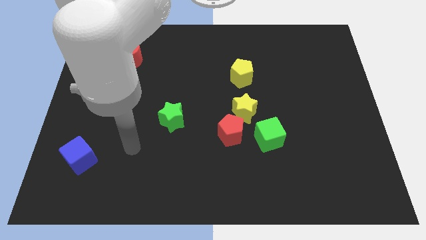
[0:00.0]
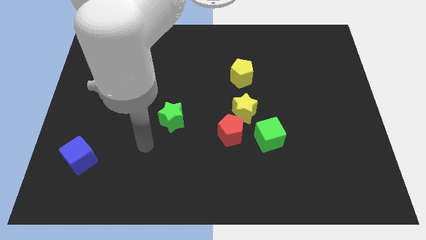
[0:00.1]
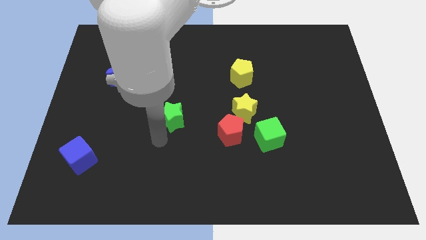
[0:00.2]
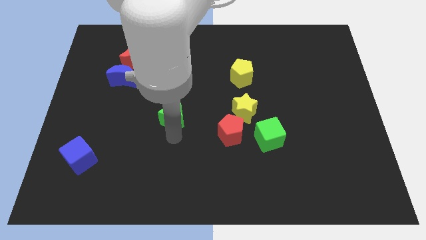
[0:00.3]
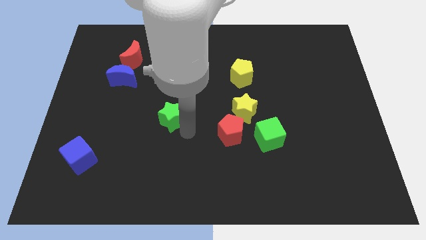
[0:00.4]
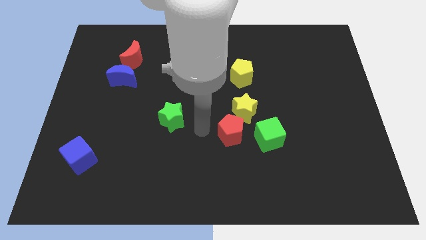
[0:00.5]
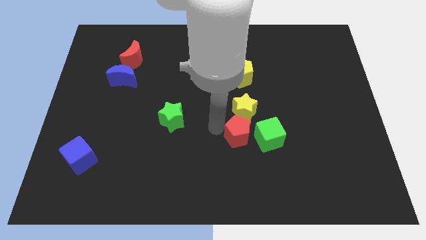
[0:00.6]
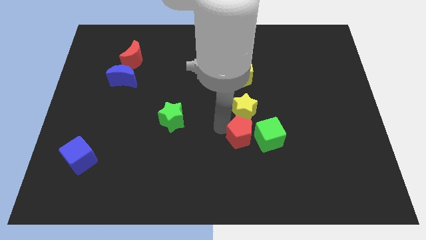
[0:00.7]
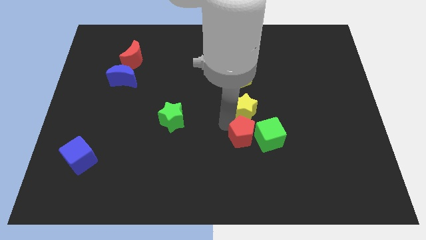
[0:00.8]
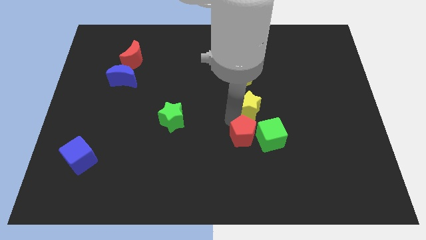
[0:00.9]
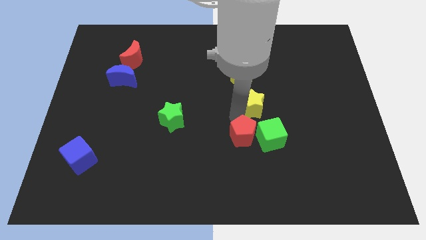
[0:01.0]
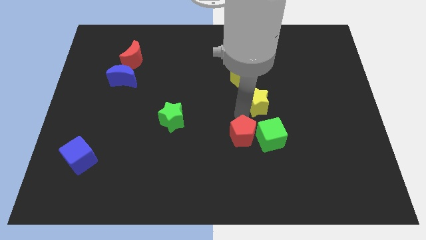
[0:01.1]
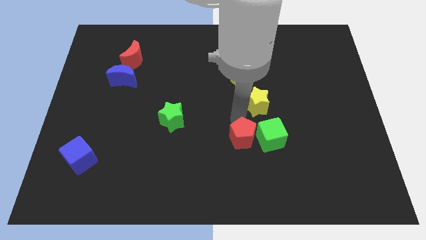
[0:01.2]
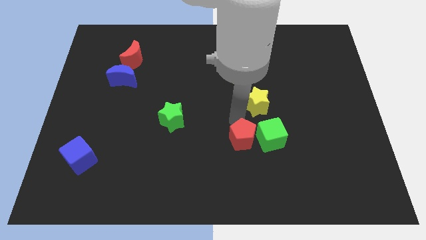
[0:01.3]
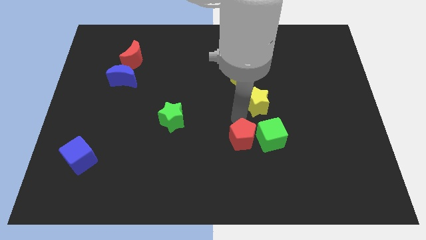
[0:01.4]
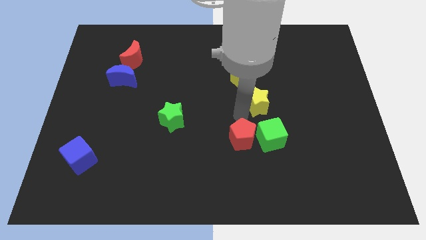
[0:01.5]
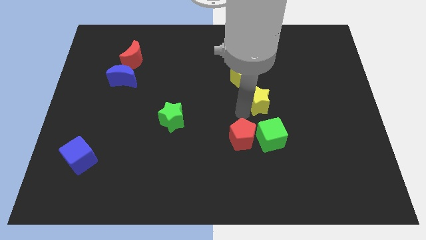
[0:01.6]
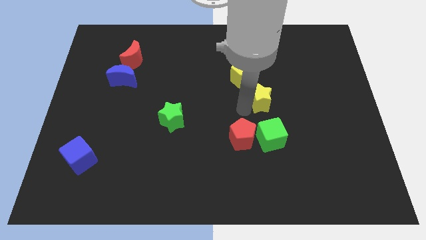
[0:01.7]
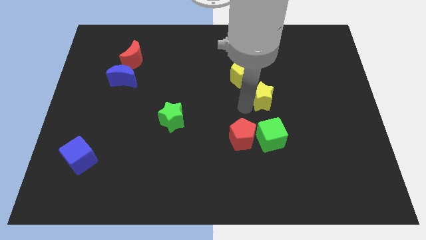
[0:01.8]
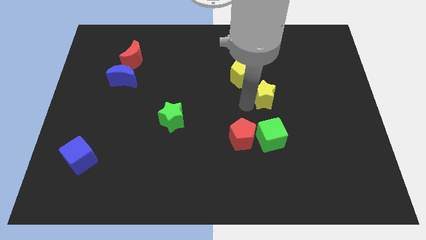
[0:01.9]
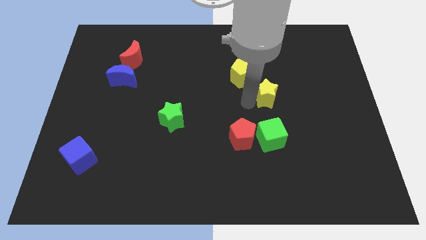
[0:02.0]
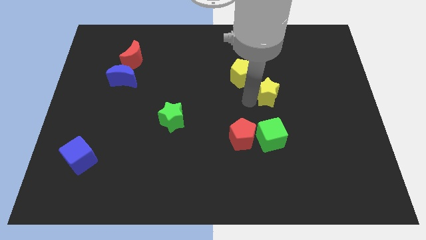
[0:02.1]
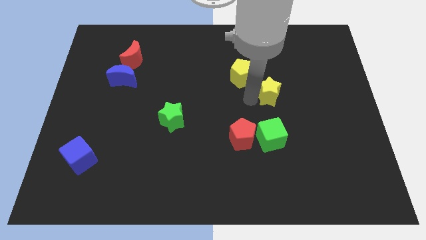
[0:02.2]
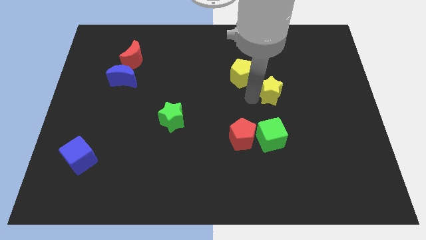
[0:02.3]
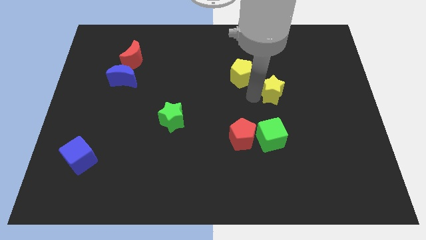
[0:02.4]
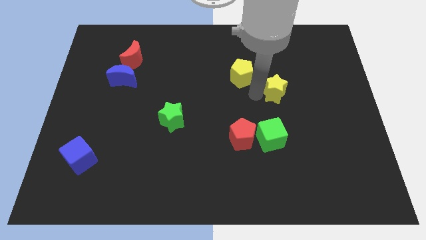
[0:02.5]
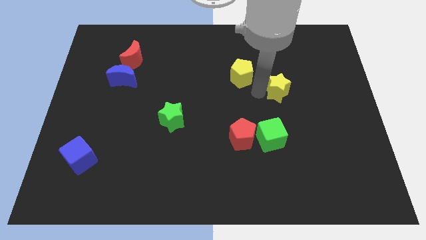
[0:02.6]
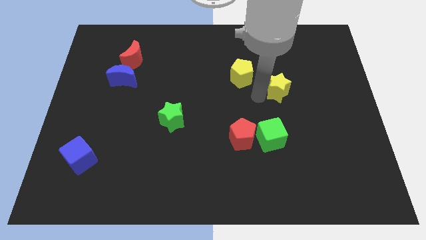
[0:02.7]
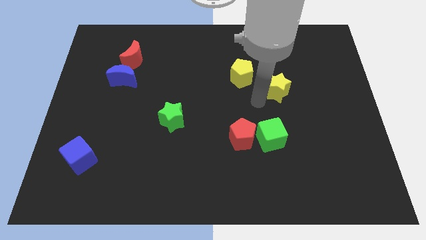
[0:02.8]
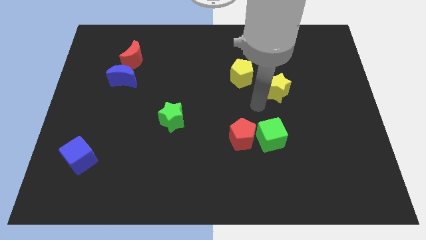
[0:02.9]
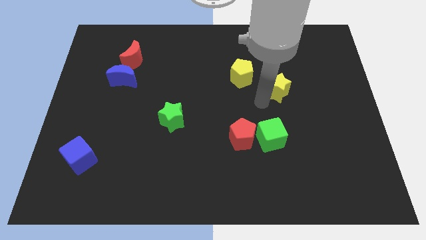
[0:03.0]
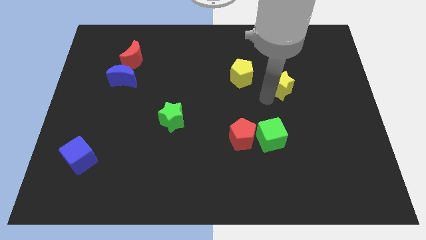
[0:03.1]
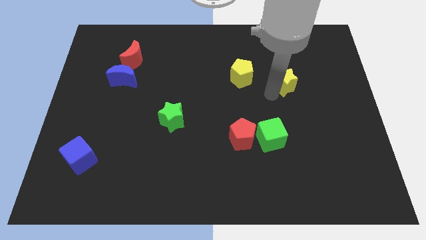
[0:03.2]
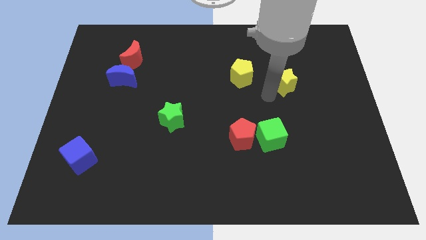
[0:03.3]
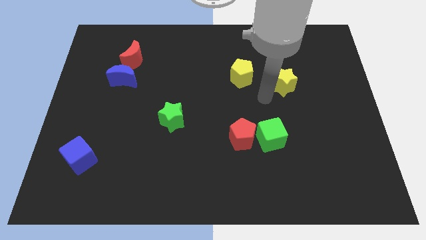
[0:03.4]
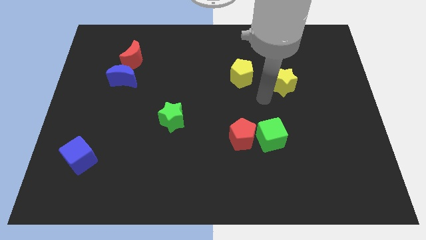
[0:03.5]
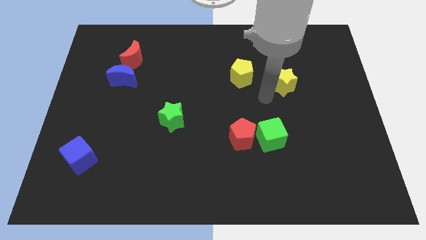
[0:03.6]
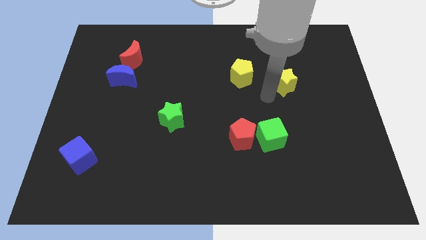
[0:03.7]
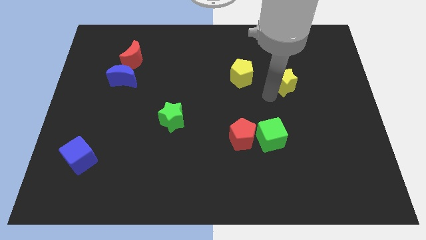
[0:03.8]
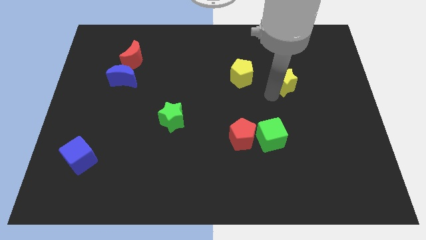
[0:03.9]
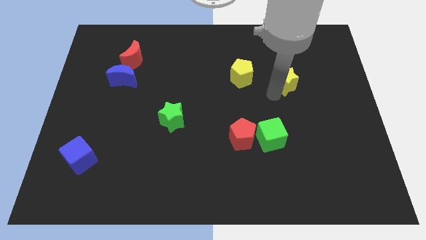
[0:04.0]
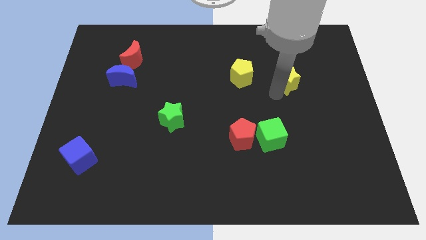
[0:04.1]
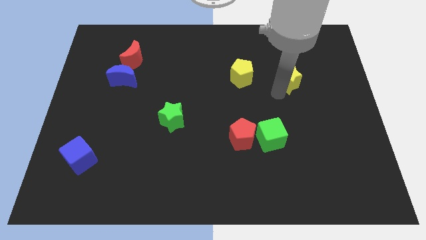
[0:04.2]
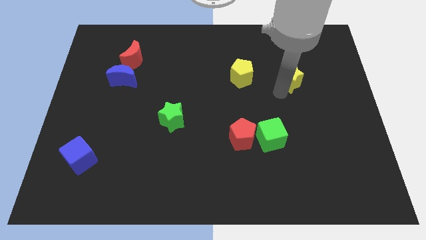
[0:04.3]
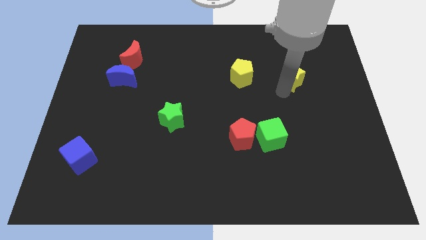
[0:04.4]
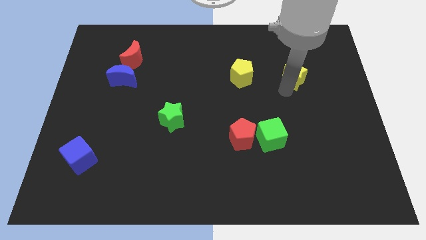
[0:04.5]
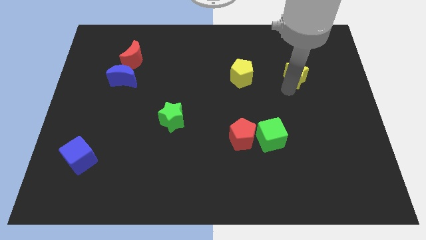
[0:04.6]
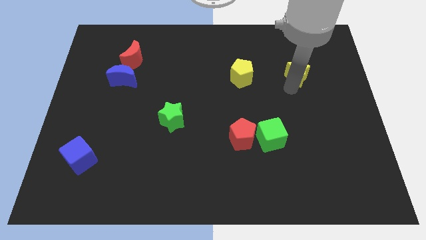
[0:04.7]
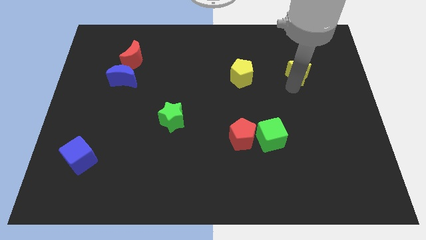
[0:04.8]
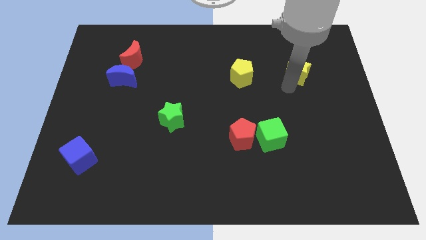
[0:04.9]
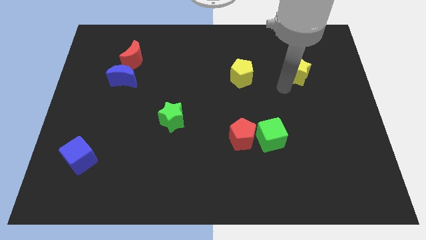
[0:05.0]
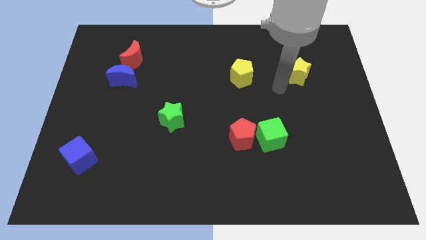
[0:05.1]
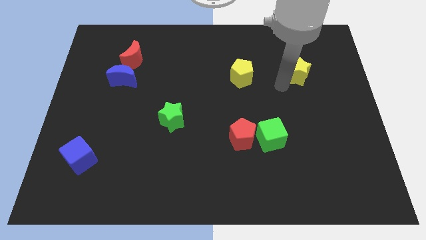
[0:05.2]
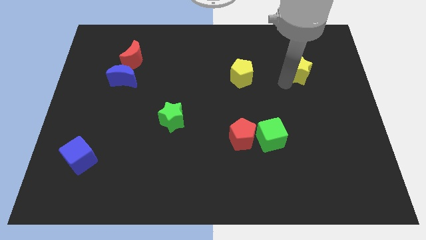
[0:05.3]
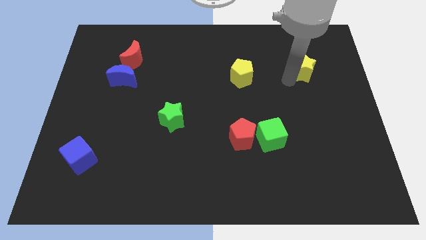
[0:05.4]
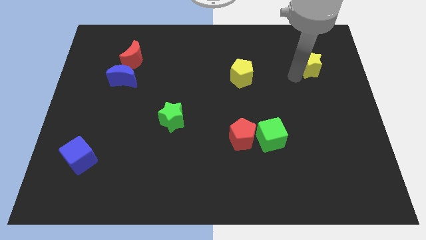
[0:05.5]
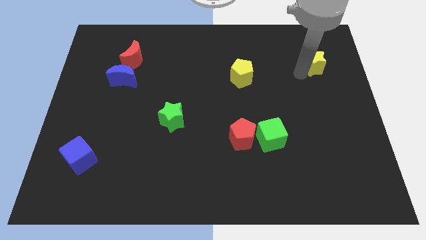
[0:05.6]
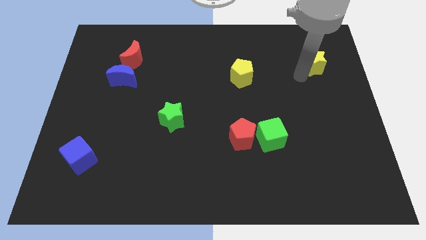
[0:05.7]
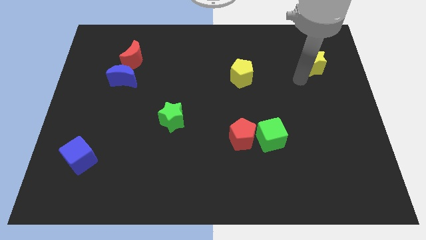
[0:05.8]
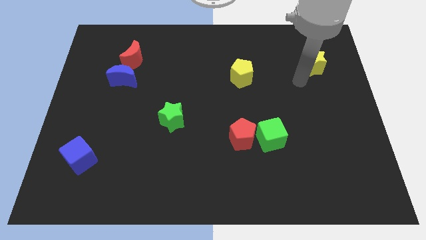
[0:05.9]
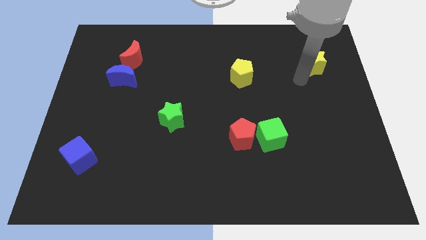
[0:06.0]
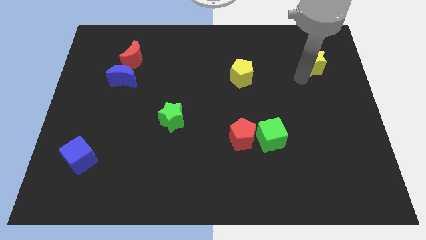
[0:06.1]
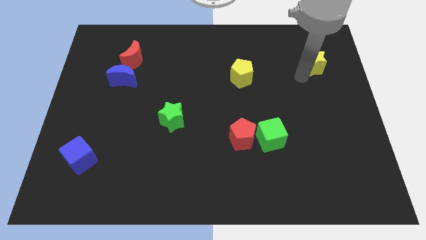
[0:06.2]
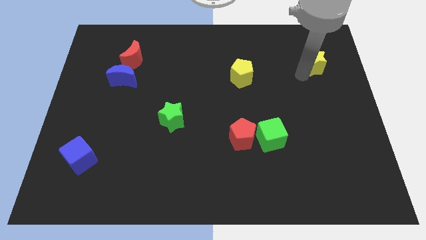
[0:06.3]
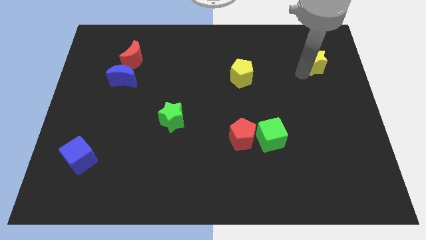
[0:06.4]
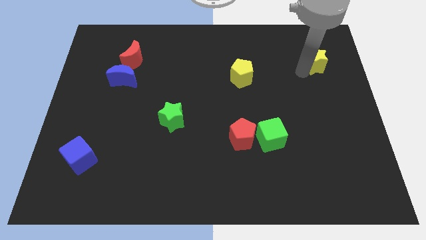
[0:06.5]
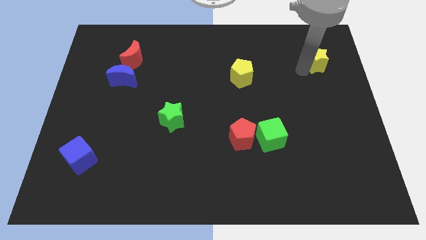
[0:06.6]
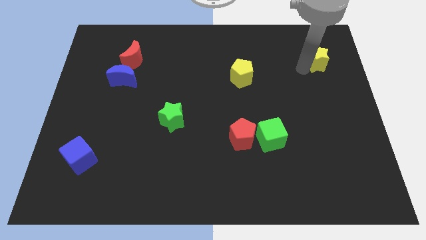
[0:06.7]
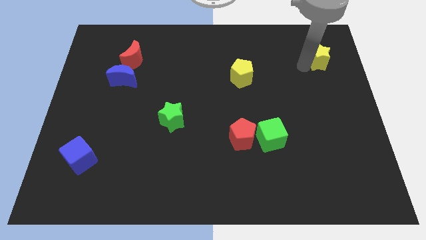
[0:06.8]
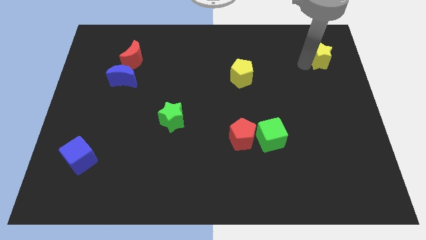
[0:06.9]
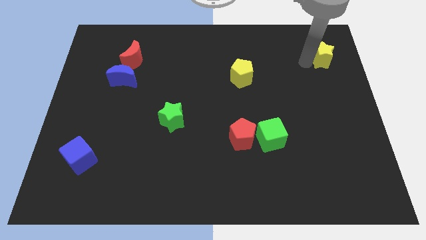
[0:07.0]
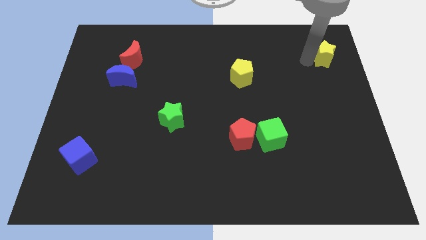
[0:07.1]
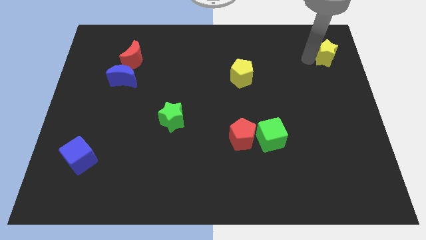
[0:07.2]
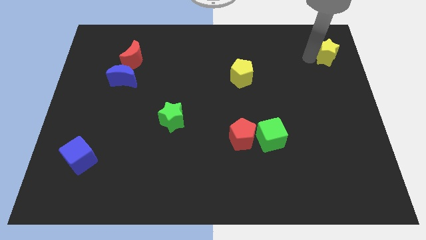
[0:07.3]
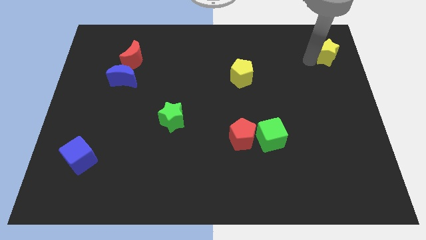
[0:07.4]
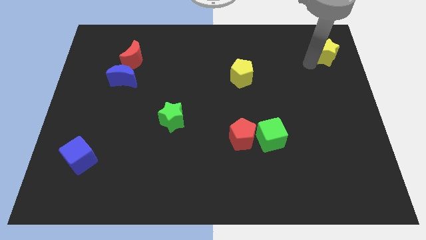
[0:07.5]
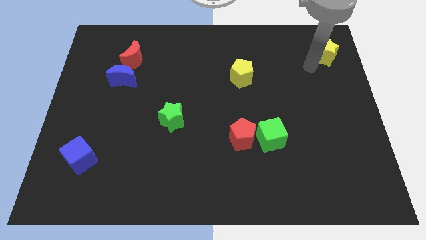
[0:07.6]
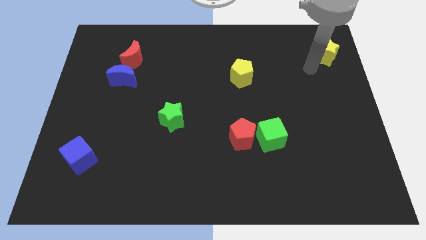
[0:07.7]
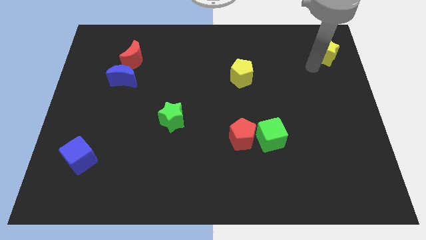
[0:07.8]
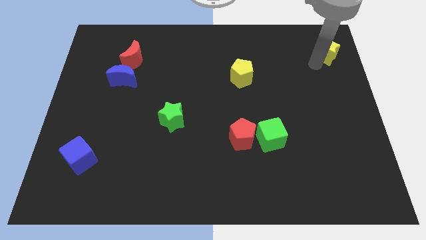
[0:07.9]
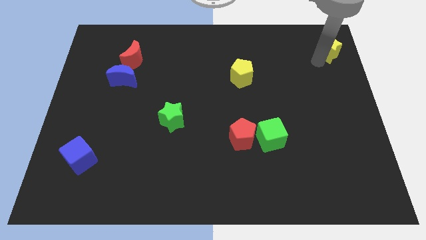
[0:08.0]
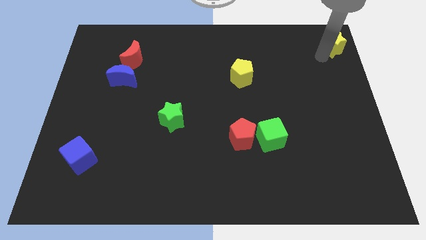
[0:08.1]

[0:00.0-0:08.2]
move the yellow star to the top right of the board
